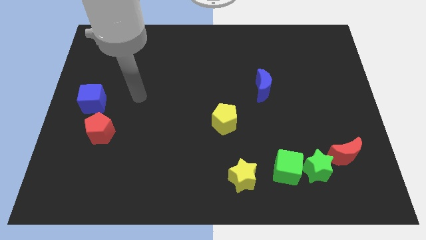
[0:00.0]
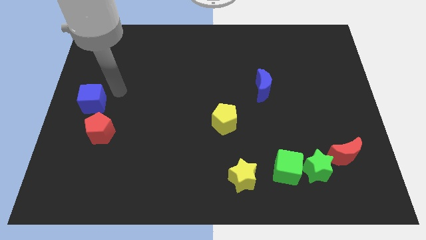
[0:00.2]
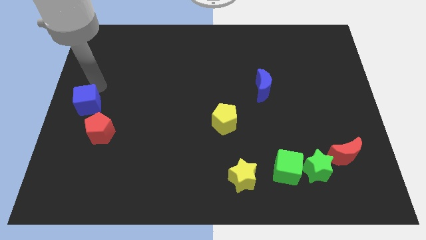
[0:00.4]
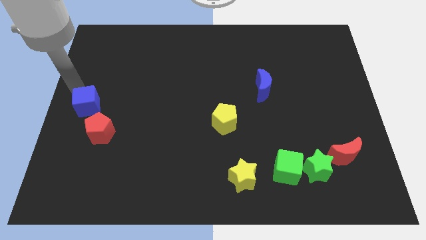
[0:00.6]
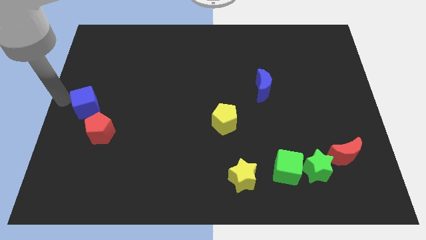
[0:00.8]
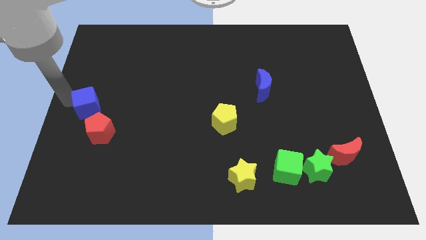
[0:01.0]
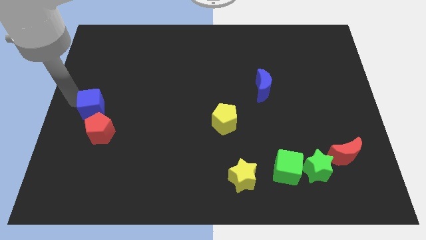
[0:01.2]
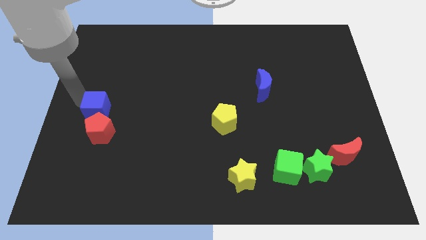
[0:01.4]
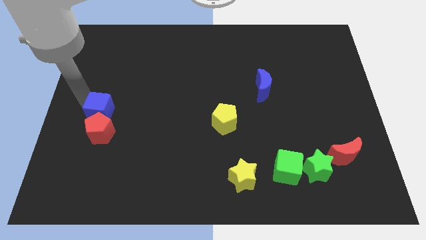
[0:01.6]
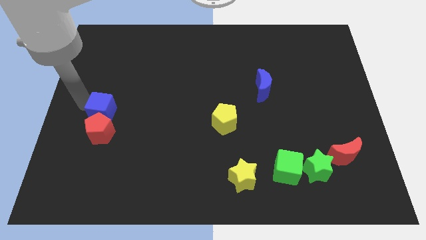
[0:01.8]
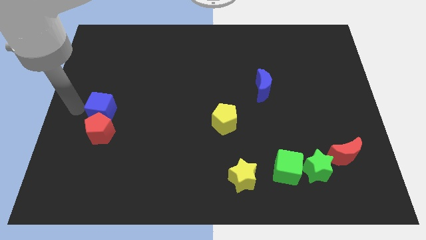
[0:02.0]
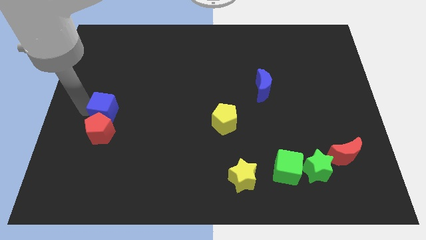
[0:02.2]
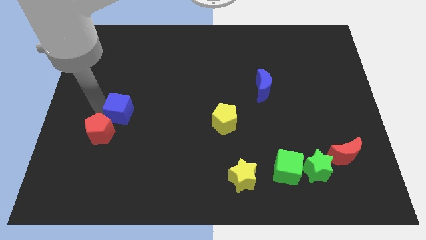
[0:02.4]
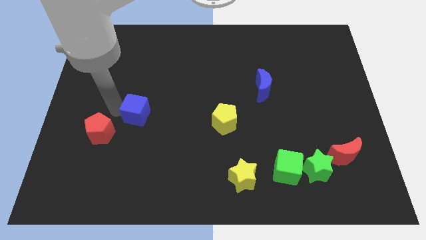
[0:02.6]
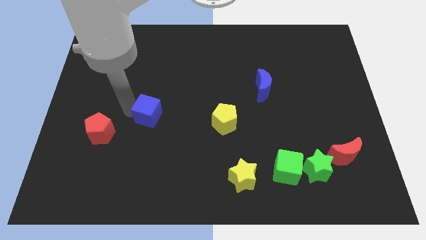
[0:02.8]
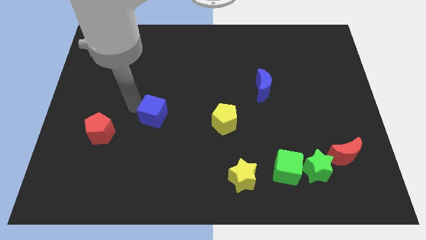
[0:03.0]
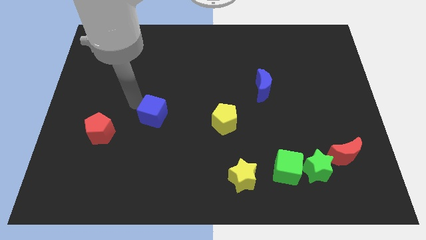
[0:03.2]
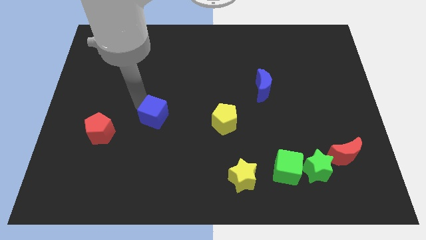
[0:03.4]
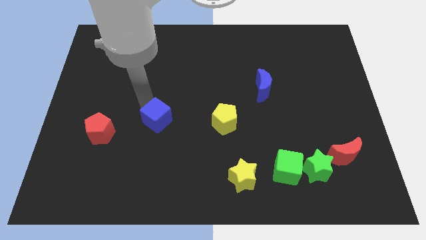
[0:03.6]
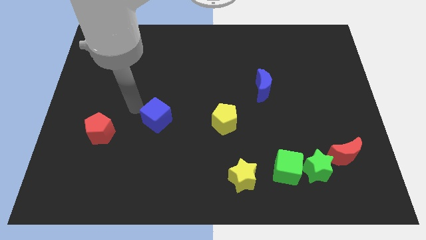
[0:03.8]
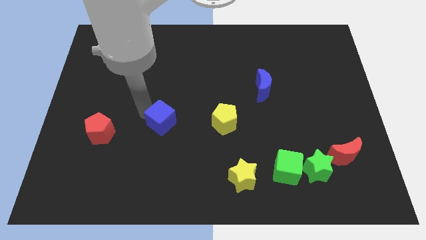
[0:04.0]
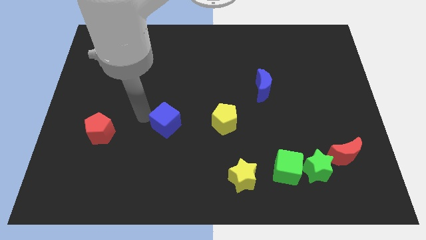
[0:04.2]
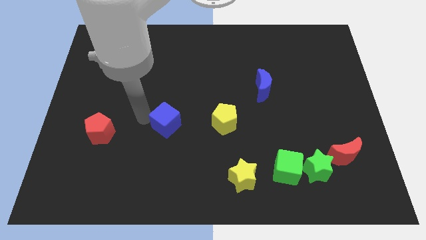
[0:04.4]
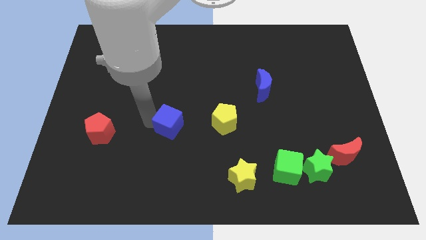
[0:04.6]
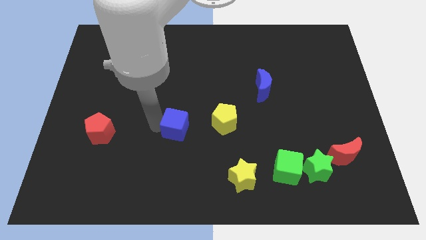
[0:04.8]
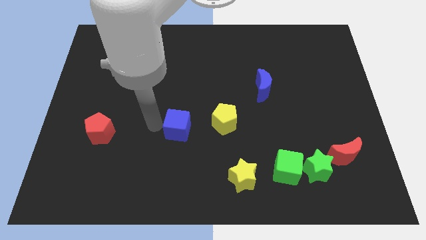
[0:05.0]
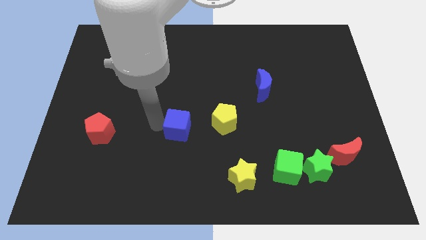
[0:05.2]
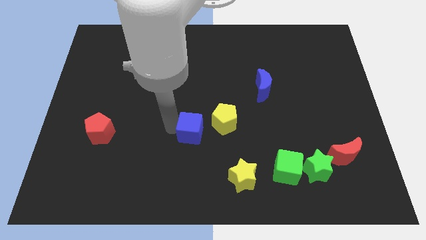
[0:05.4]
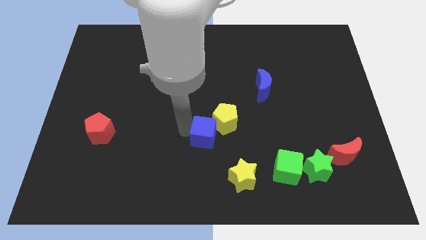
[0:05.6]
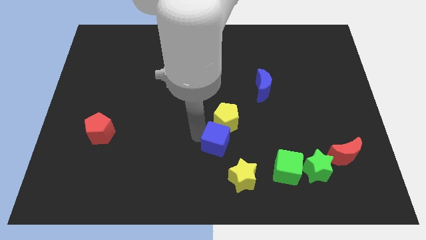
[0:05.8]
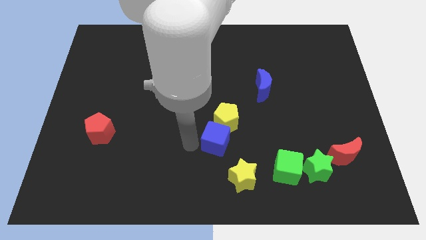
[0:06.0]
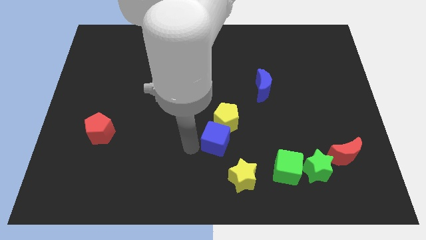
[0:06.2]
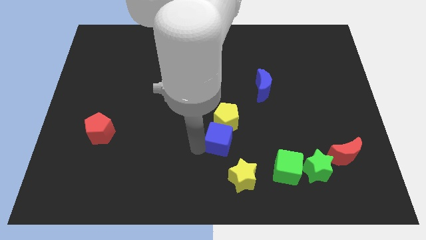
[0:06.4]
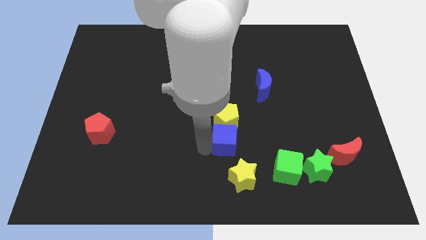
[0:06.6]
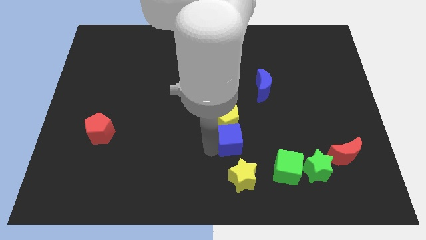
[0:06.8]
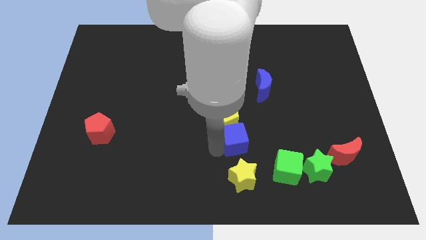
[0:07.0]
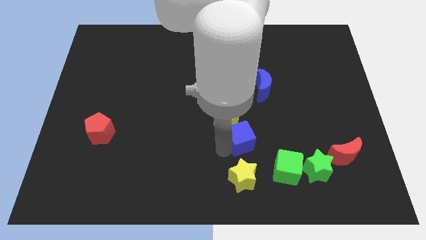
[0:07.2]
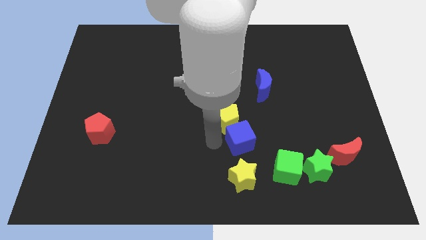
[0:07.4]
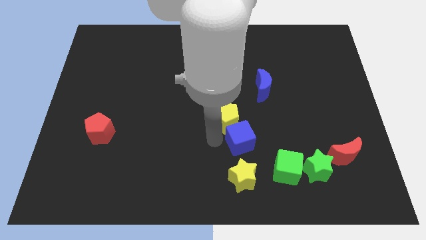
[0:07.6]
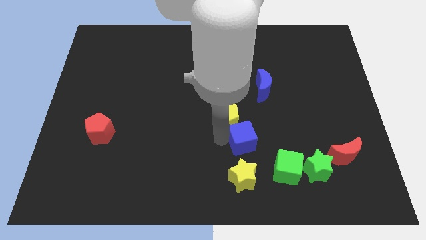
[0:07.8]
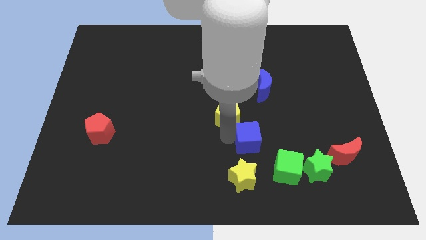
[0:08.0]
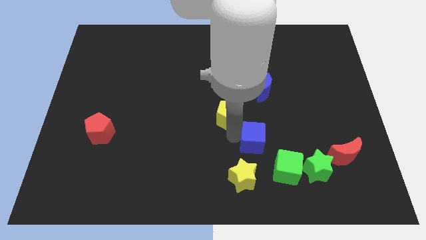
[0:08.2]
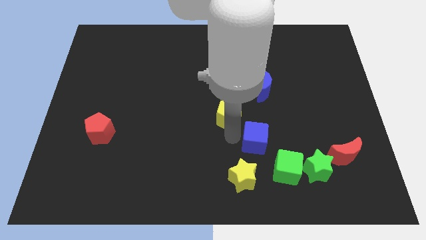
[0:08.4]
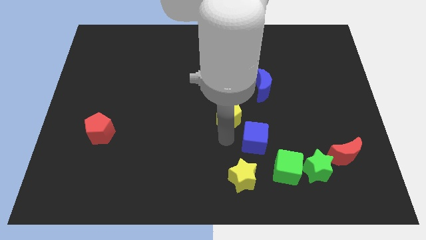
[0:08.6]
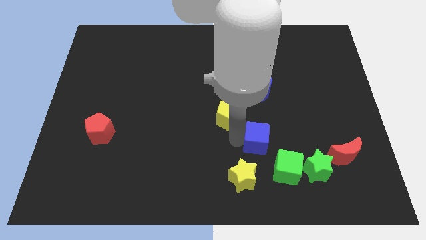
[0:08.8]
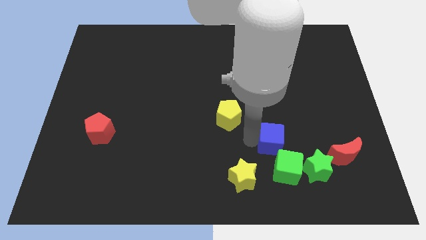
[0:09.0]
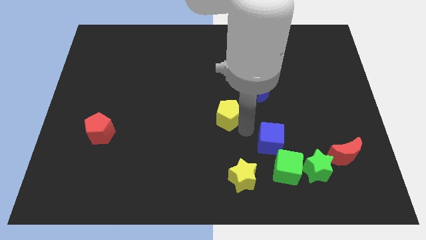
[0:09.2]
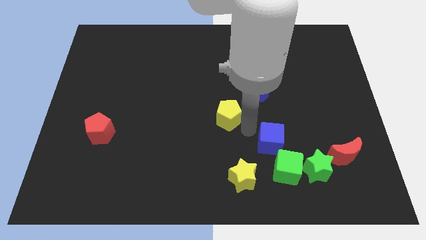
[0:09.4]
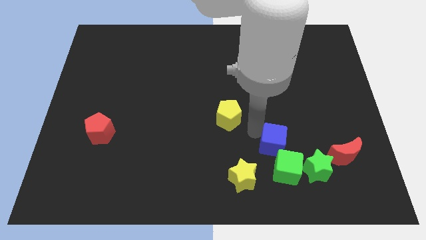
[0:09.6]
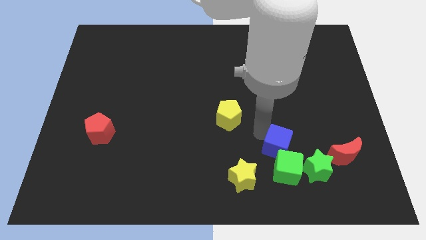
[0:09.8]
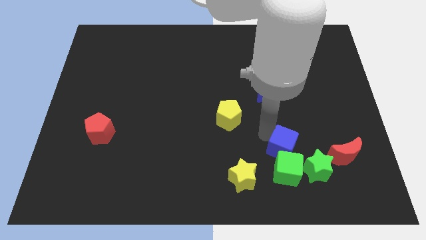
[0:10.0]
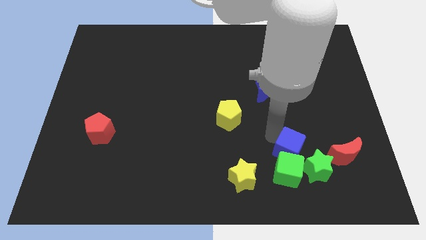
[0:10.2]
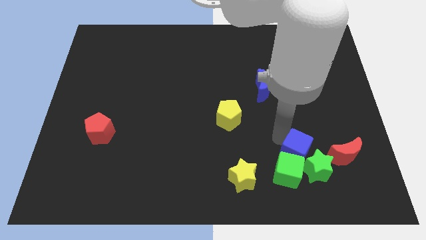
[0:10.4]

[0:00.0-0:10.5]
slide the blue cube close to the green star

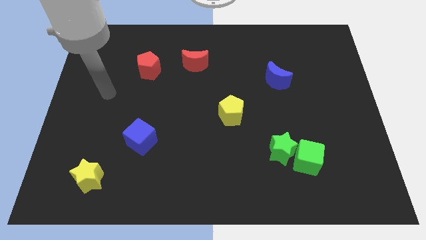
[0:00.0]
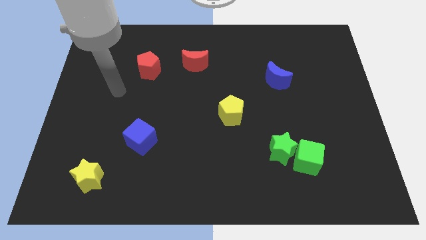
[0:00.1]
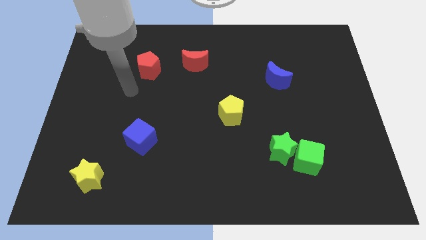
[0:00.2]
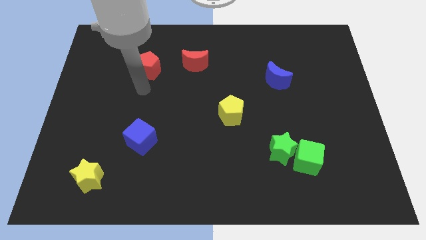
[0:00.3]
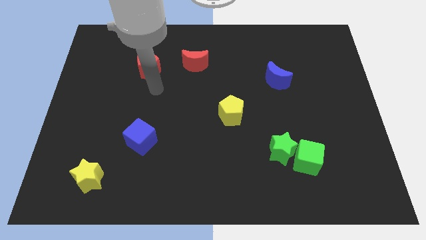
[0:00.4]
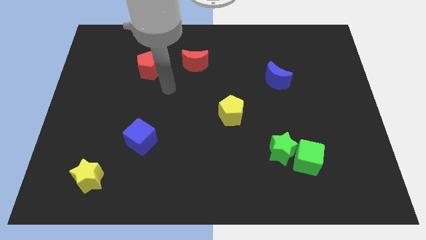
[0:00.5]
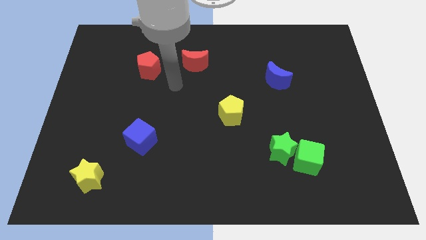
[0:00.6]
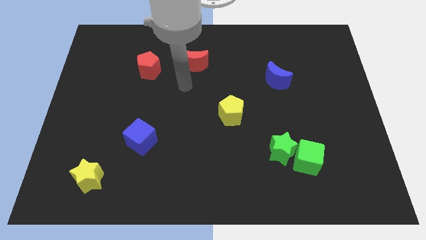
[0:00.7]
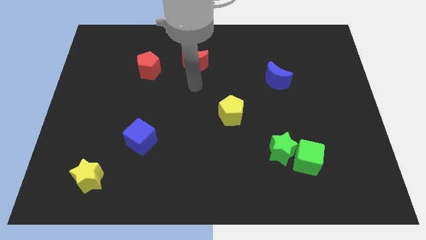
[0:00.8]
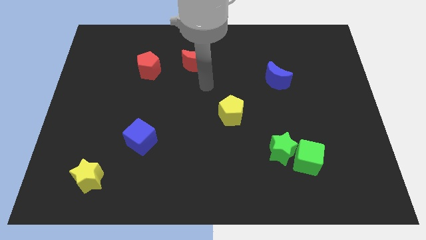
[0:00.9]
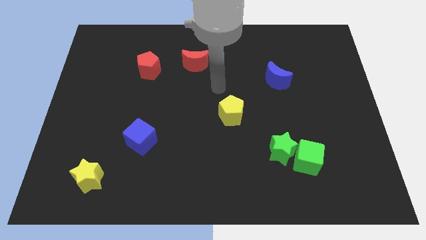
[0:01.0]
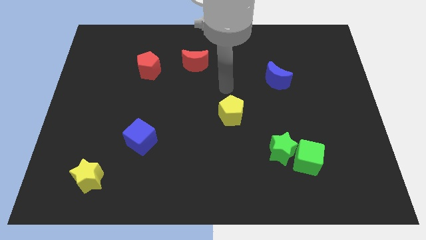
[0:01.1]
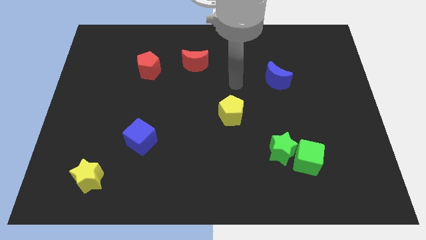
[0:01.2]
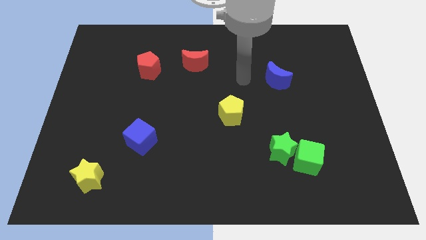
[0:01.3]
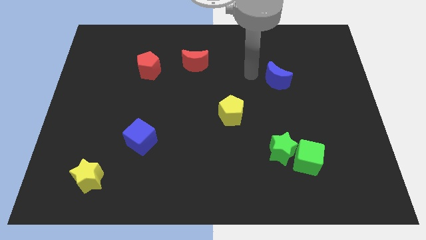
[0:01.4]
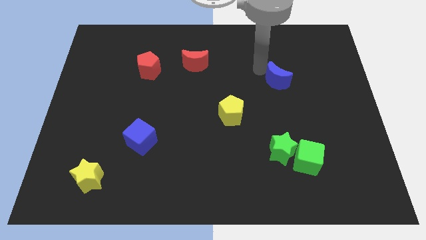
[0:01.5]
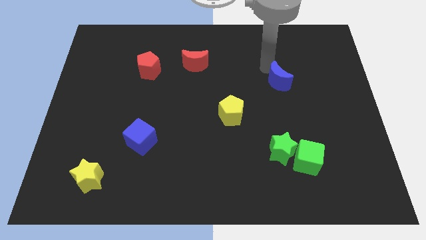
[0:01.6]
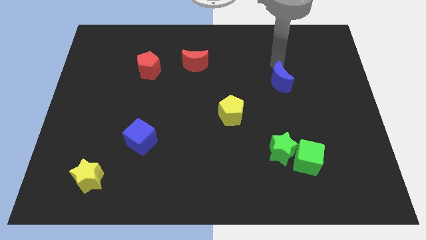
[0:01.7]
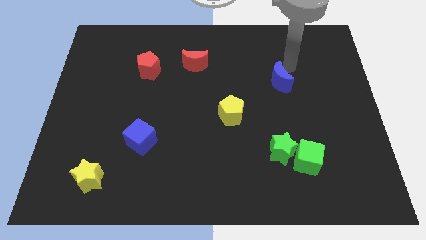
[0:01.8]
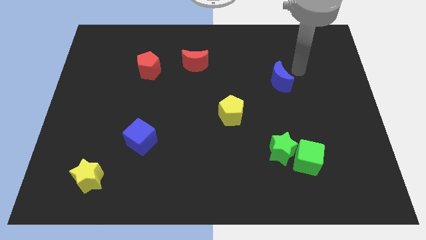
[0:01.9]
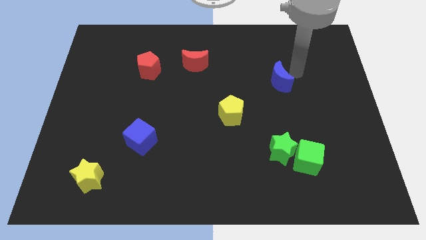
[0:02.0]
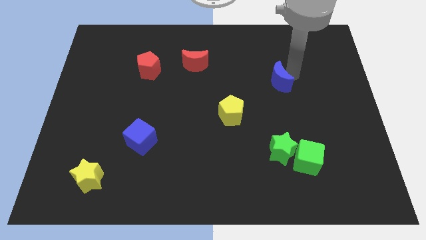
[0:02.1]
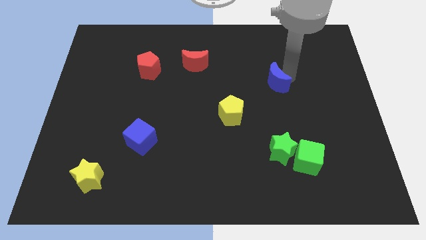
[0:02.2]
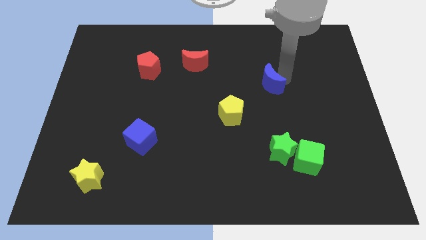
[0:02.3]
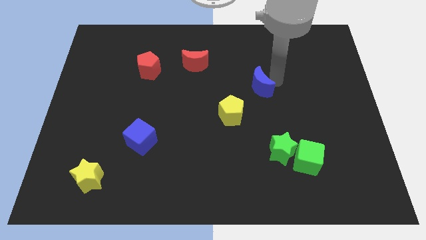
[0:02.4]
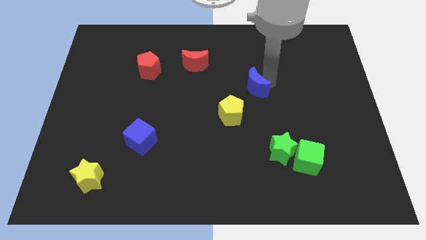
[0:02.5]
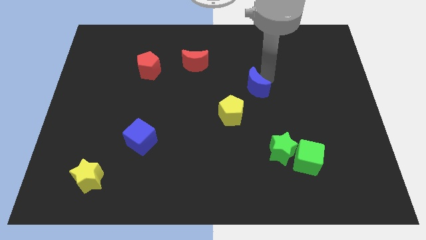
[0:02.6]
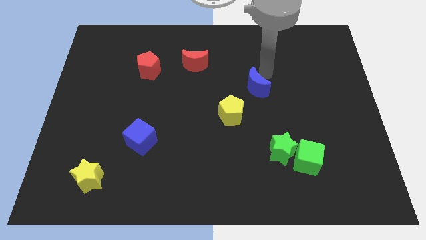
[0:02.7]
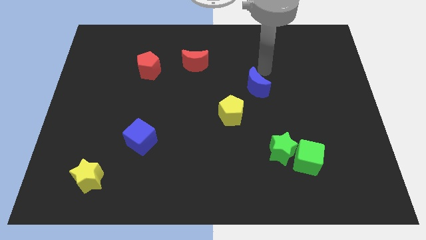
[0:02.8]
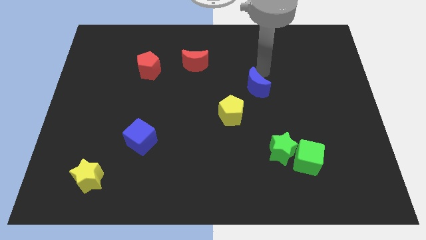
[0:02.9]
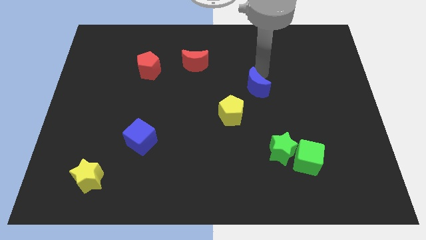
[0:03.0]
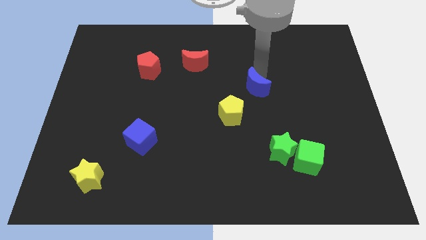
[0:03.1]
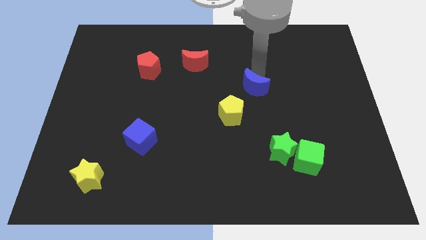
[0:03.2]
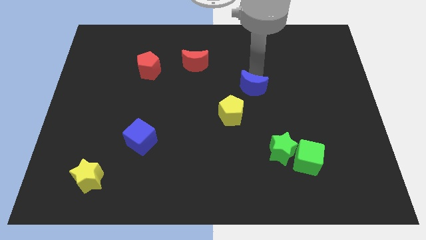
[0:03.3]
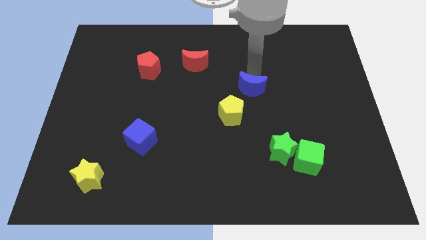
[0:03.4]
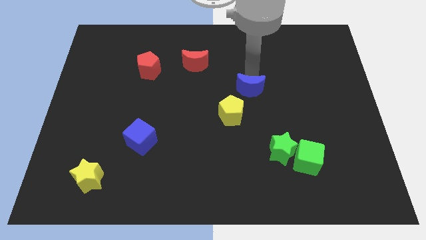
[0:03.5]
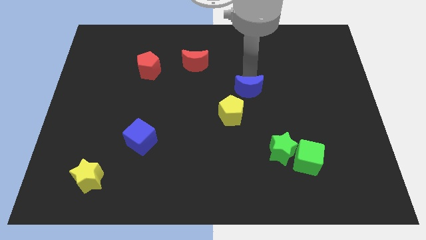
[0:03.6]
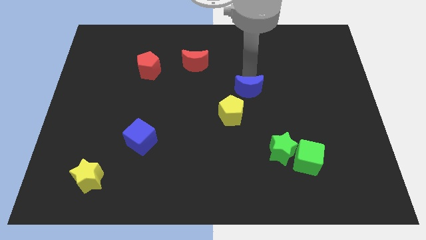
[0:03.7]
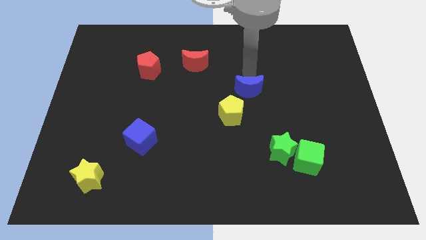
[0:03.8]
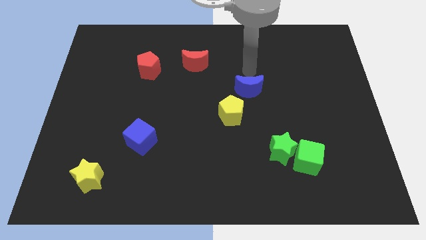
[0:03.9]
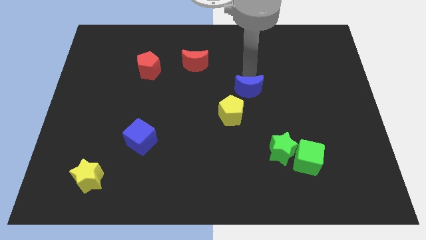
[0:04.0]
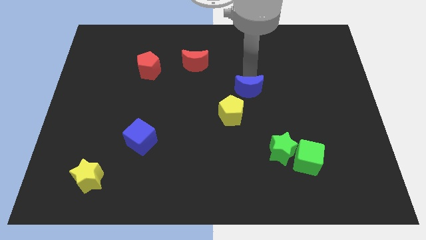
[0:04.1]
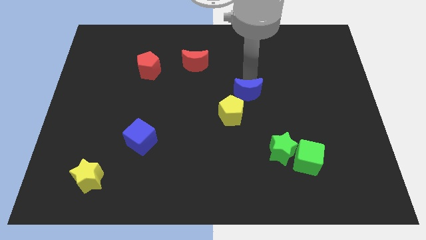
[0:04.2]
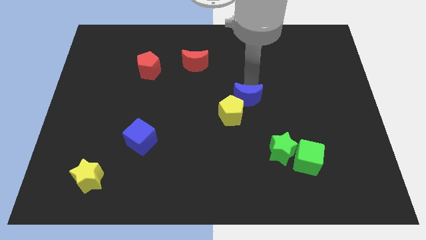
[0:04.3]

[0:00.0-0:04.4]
move the blue moon to the yellow pentagon
